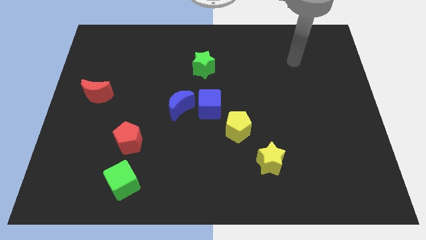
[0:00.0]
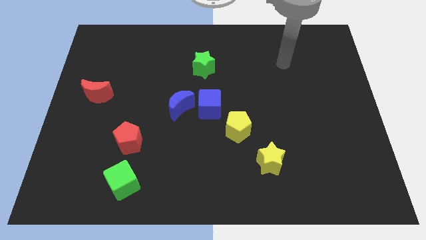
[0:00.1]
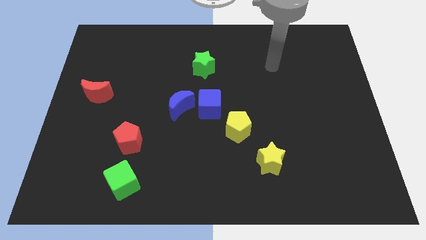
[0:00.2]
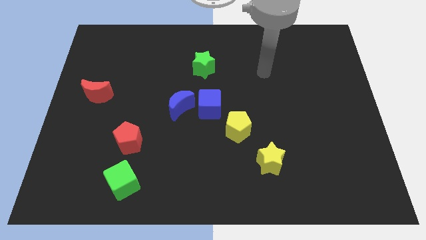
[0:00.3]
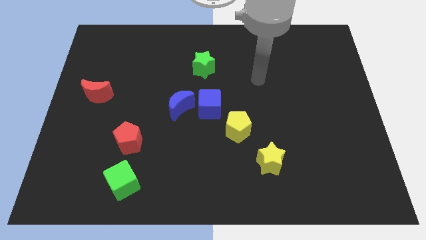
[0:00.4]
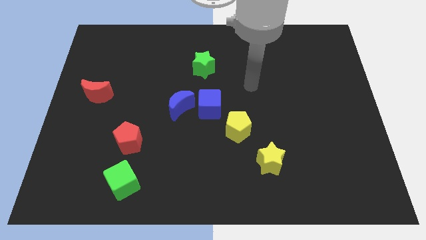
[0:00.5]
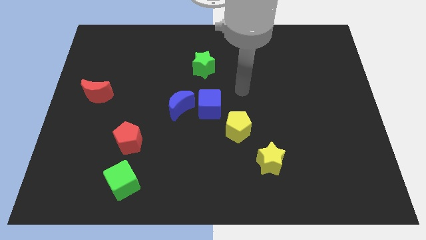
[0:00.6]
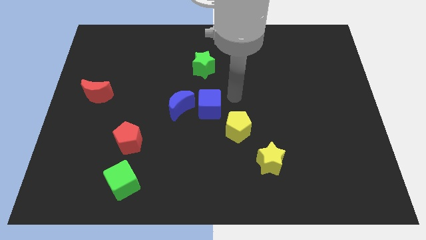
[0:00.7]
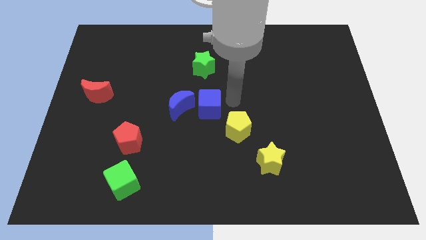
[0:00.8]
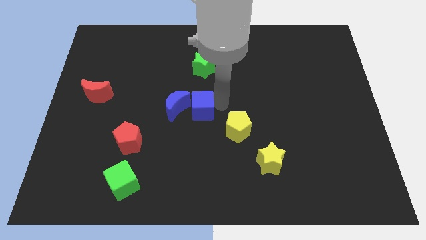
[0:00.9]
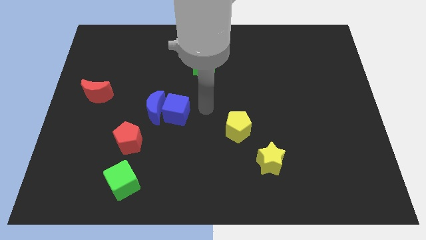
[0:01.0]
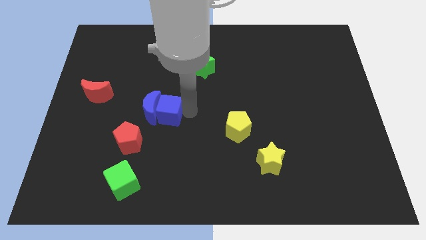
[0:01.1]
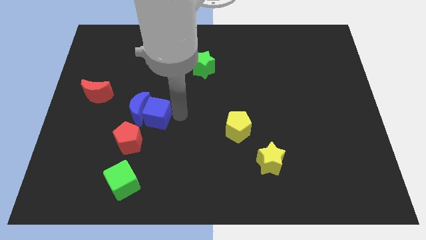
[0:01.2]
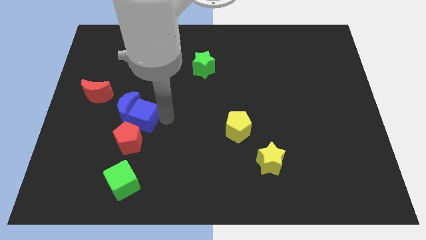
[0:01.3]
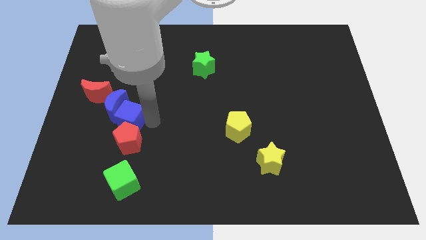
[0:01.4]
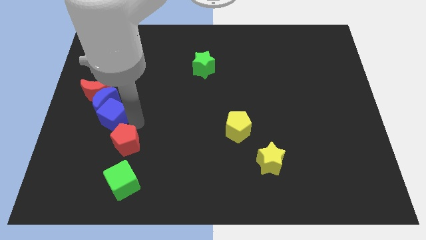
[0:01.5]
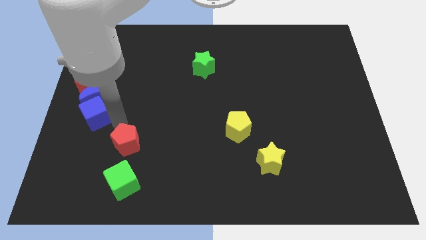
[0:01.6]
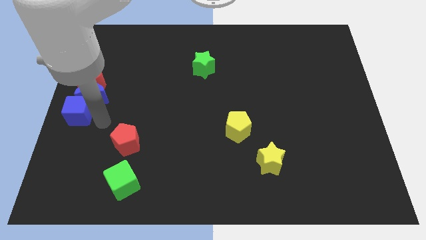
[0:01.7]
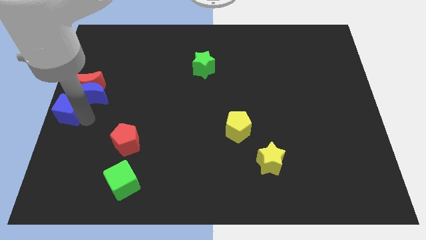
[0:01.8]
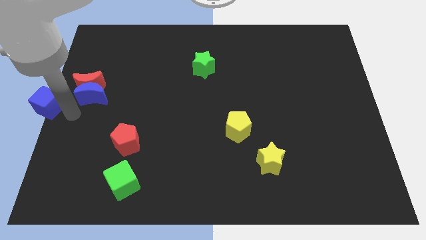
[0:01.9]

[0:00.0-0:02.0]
move the blue moon away from the blue cube

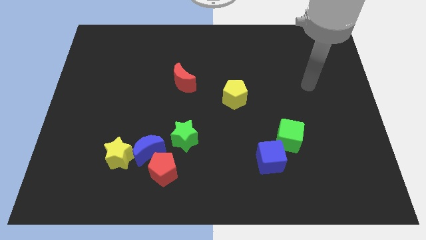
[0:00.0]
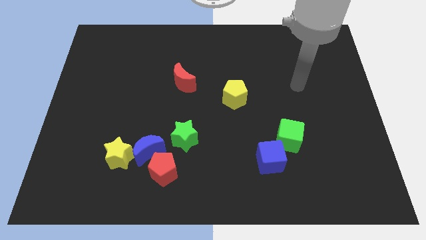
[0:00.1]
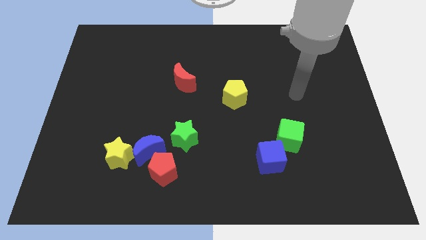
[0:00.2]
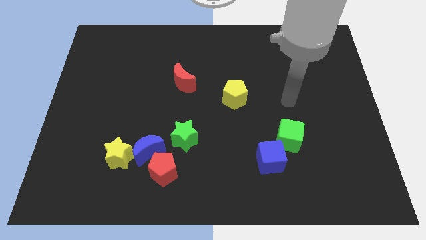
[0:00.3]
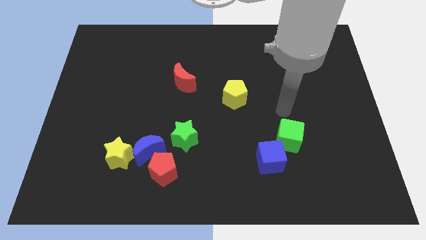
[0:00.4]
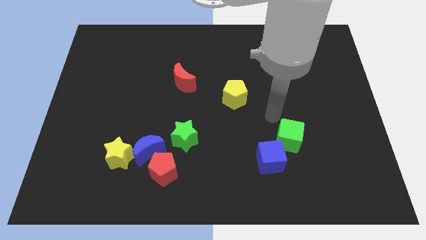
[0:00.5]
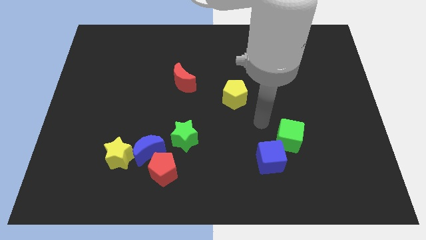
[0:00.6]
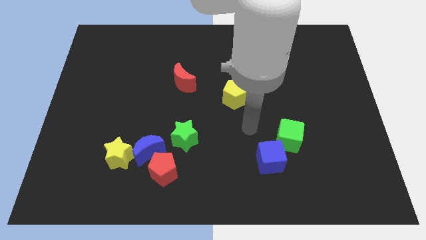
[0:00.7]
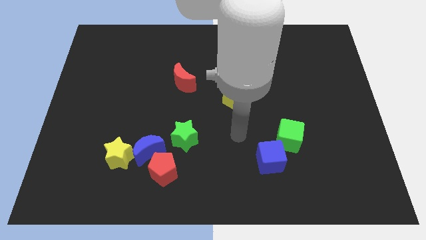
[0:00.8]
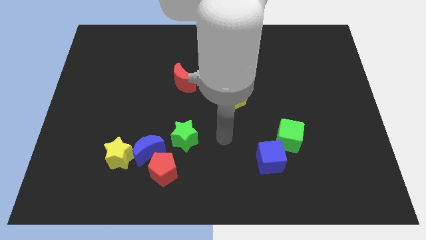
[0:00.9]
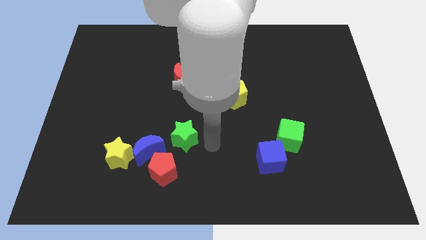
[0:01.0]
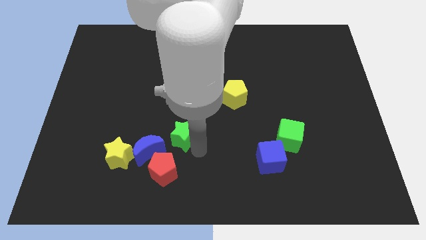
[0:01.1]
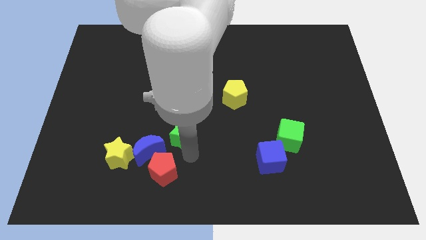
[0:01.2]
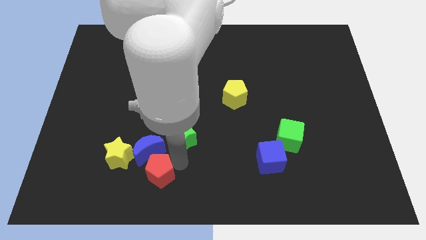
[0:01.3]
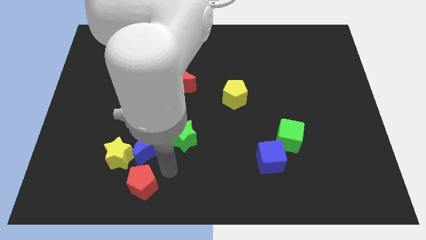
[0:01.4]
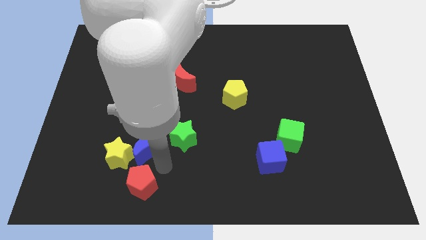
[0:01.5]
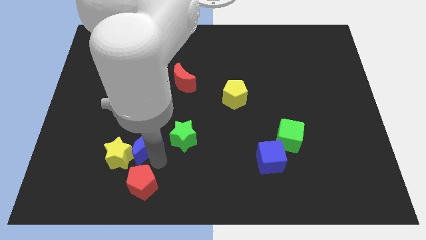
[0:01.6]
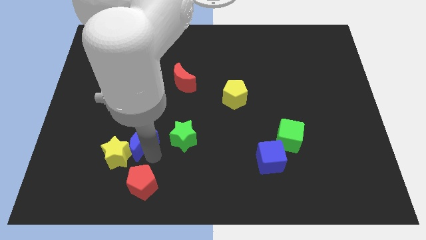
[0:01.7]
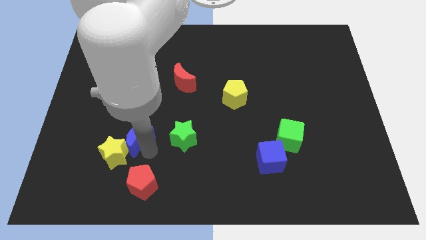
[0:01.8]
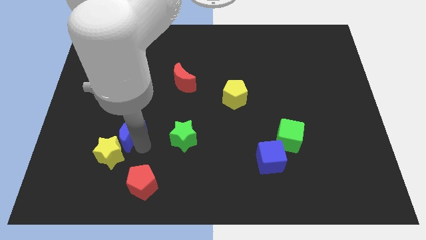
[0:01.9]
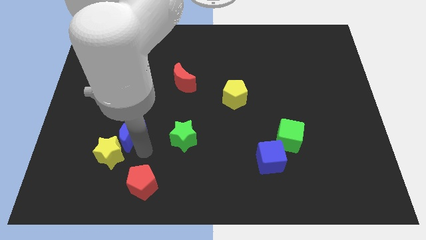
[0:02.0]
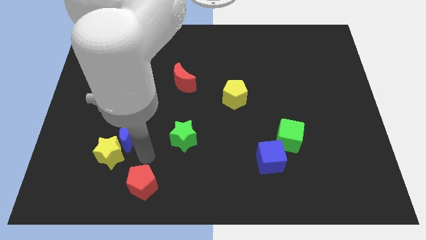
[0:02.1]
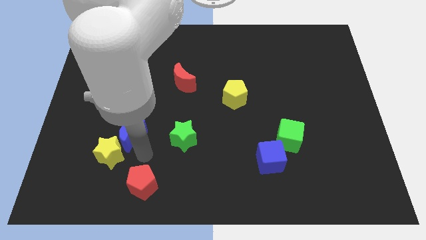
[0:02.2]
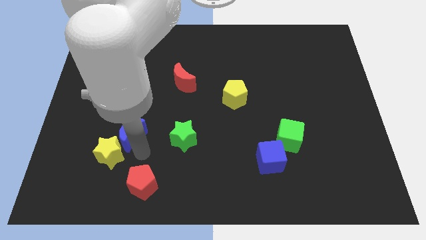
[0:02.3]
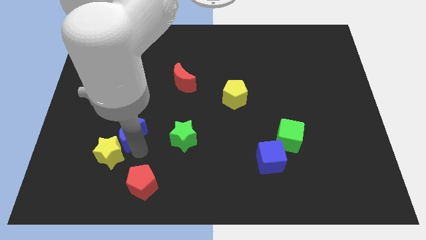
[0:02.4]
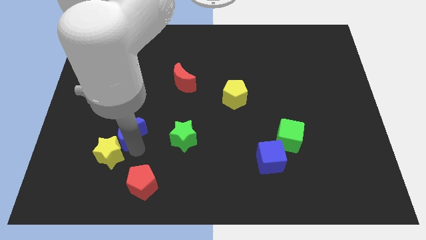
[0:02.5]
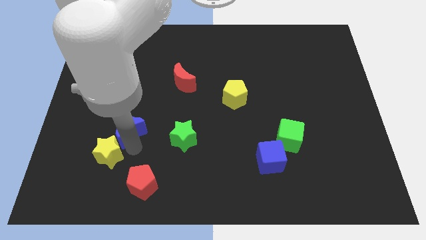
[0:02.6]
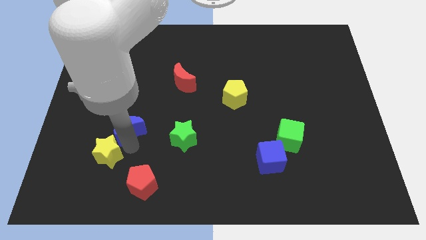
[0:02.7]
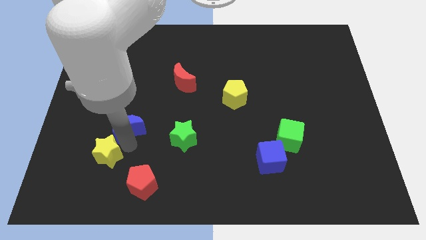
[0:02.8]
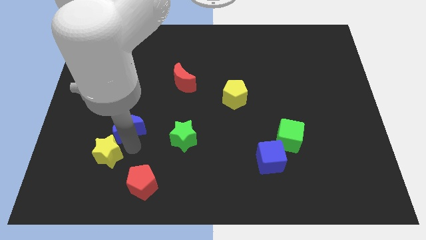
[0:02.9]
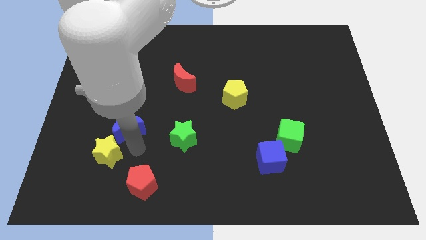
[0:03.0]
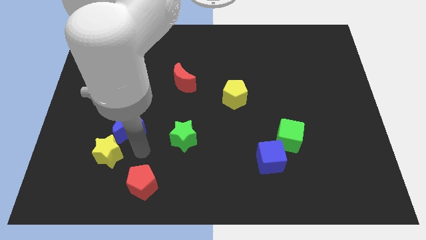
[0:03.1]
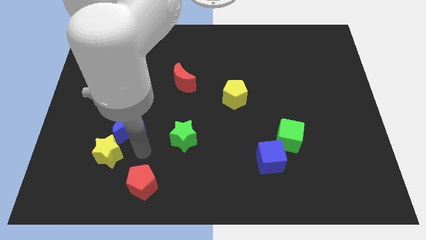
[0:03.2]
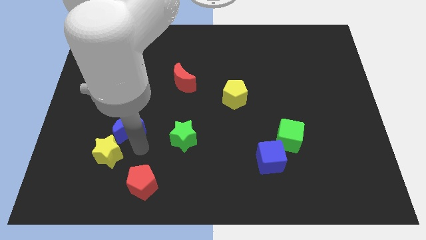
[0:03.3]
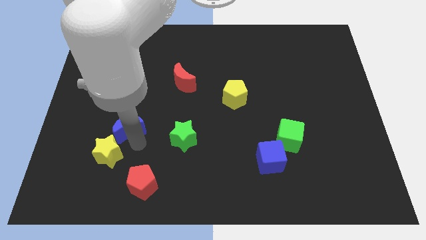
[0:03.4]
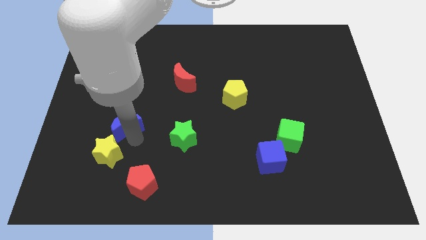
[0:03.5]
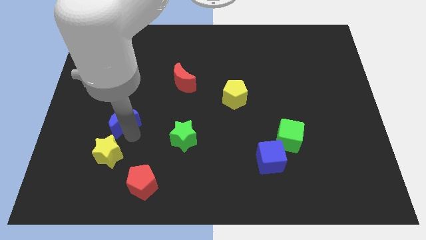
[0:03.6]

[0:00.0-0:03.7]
separate the blue moon from the group

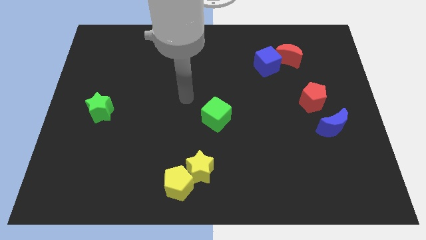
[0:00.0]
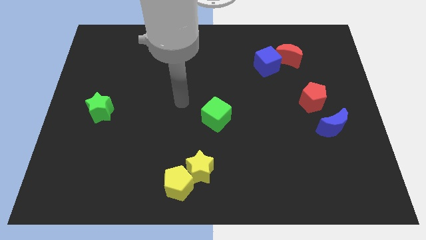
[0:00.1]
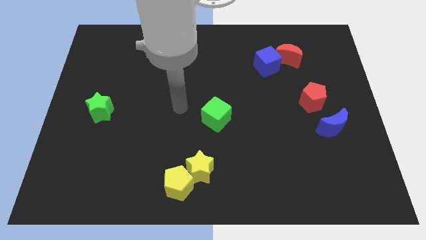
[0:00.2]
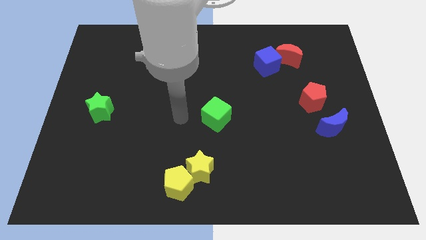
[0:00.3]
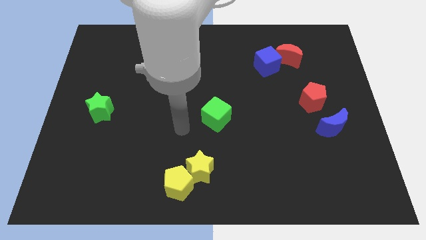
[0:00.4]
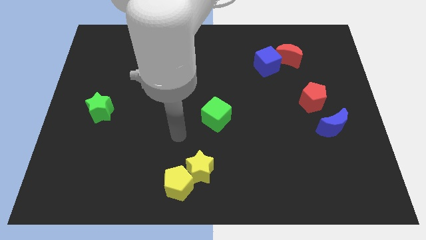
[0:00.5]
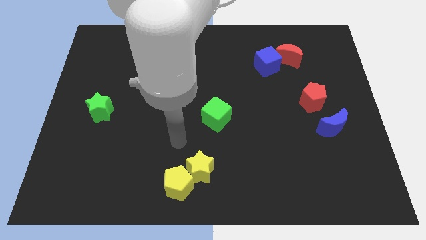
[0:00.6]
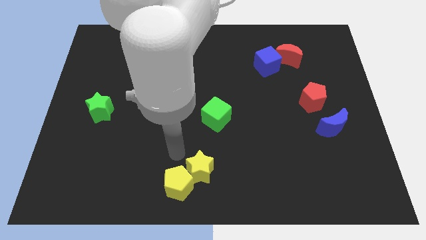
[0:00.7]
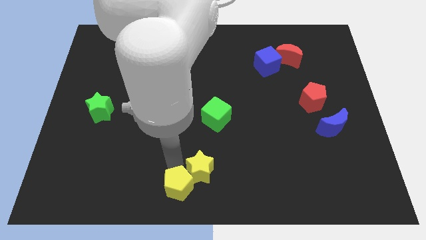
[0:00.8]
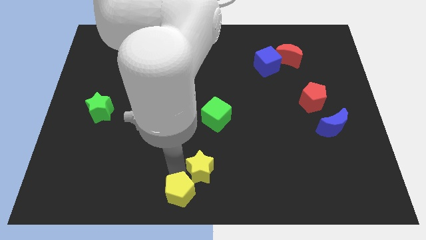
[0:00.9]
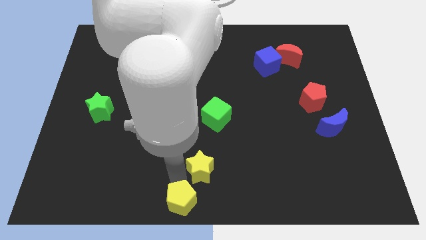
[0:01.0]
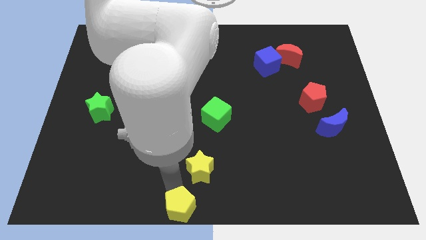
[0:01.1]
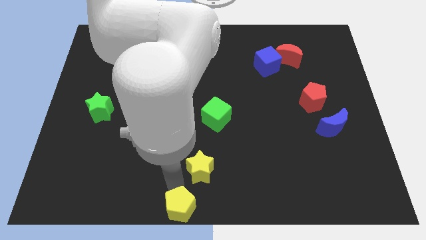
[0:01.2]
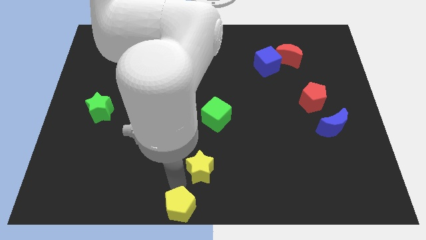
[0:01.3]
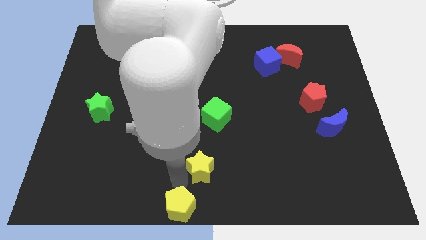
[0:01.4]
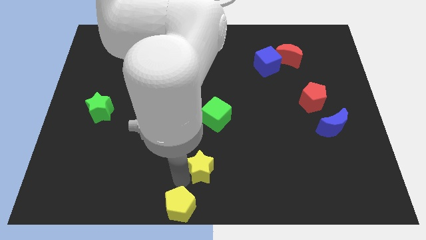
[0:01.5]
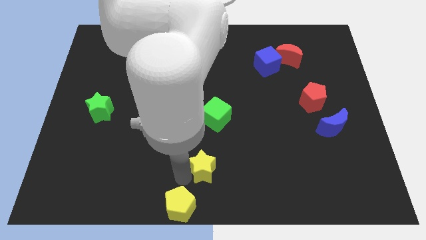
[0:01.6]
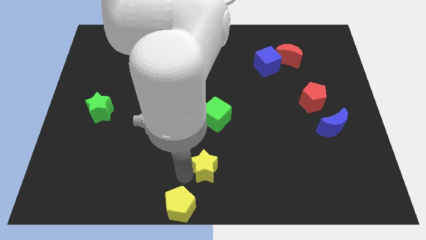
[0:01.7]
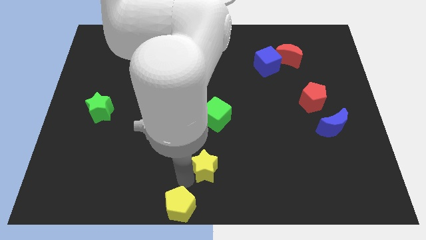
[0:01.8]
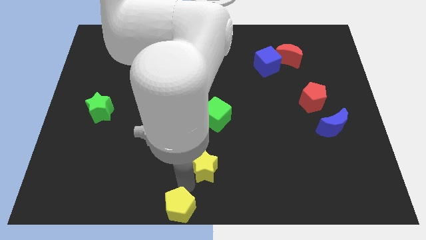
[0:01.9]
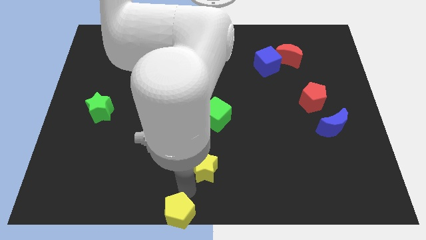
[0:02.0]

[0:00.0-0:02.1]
move the yellow star away from the yellow pentagon

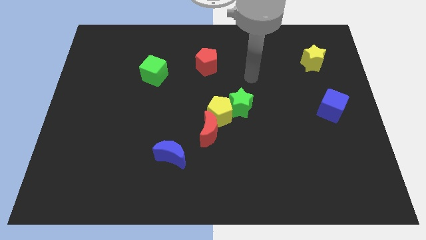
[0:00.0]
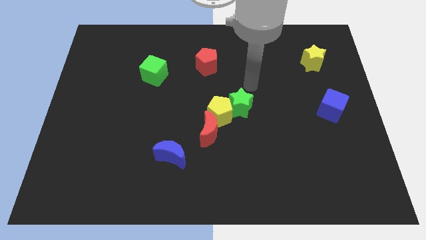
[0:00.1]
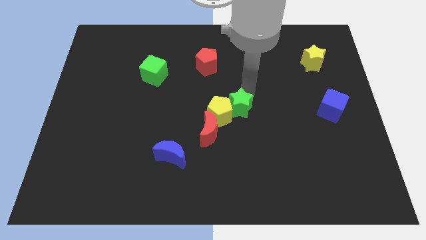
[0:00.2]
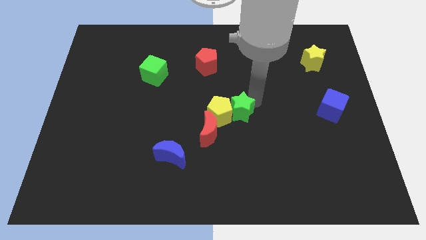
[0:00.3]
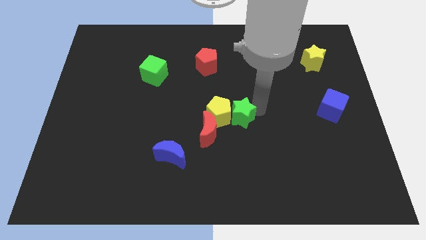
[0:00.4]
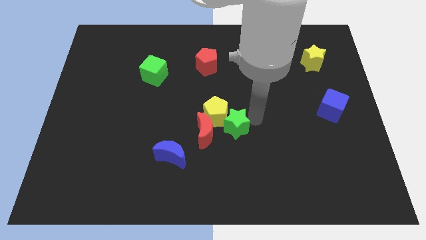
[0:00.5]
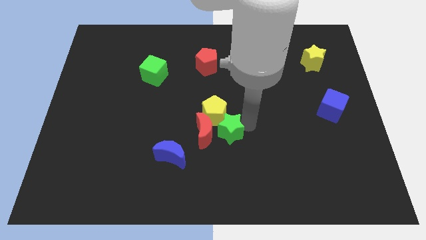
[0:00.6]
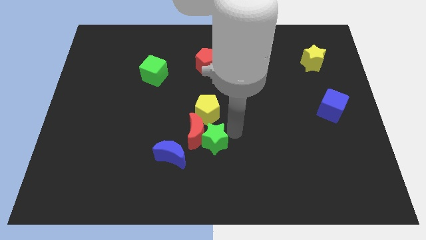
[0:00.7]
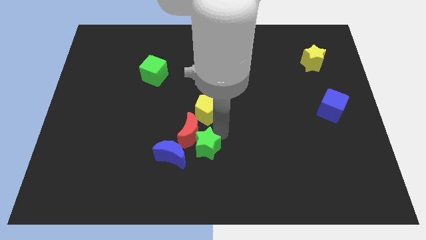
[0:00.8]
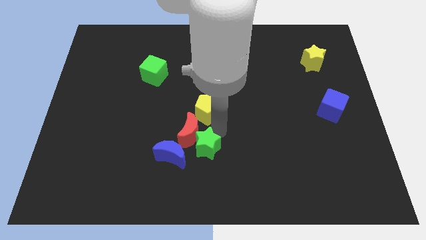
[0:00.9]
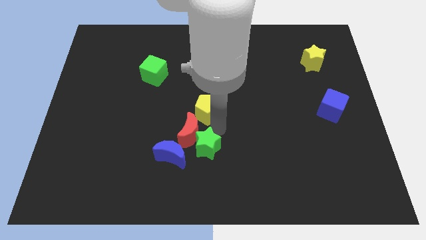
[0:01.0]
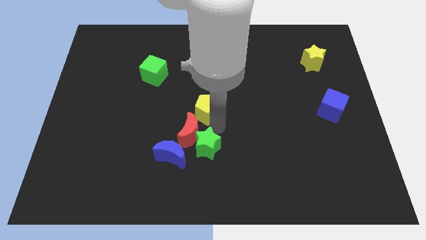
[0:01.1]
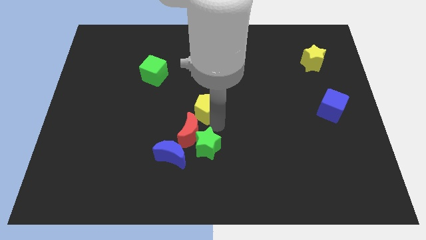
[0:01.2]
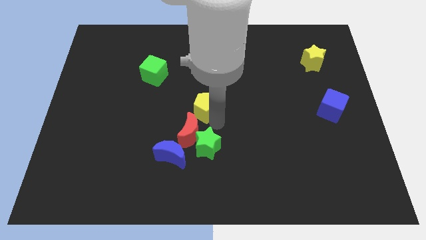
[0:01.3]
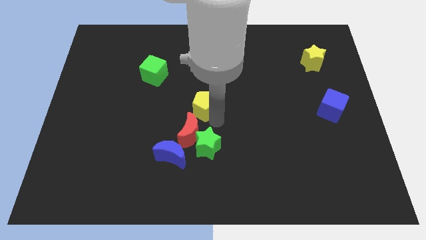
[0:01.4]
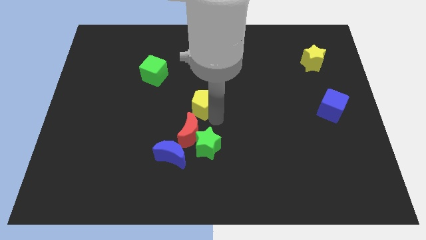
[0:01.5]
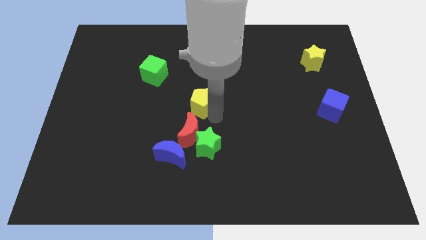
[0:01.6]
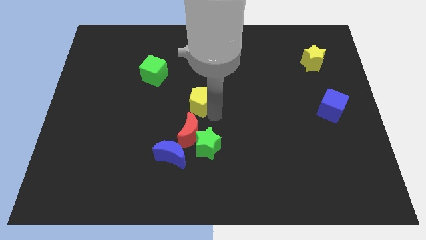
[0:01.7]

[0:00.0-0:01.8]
move the yellow pentagon away from the green star and red moon
